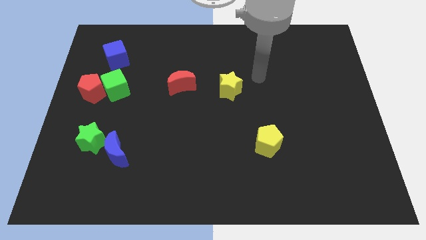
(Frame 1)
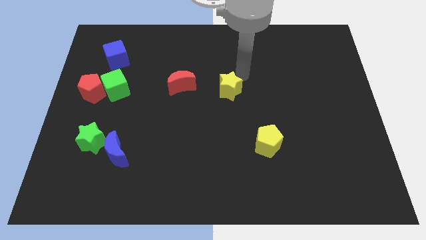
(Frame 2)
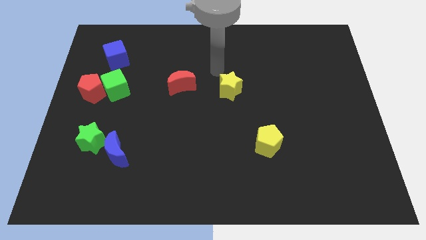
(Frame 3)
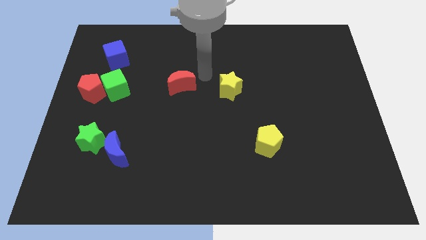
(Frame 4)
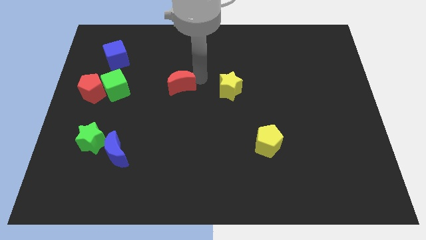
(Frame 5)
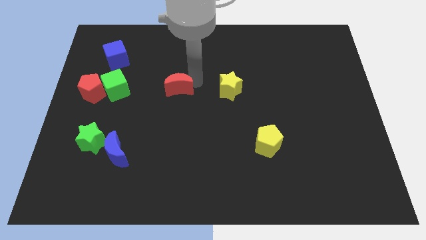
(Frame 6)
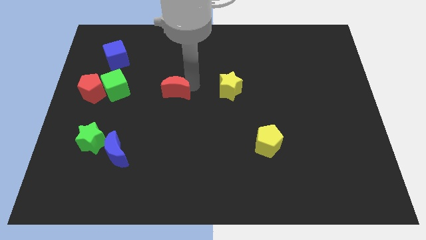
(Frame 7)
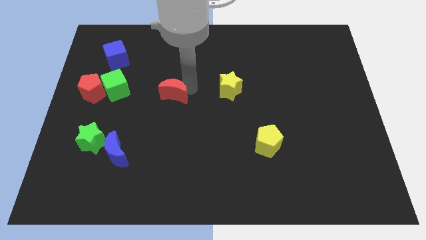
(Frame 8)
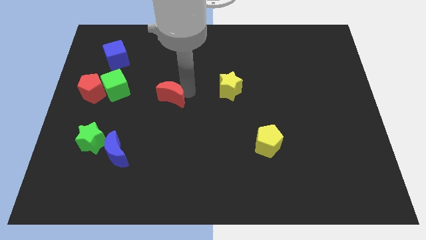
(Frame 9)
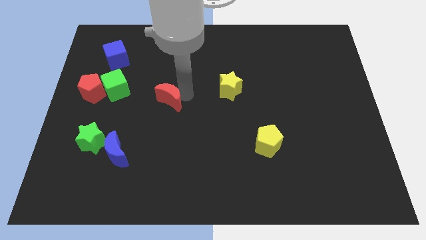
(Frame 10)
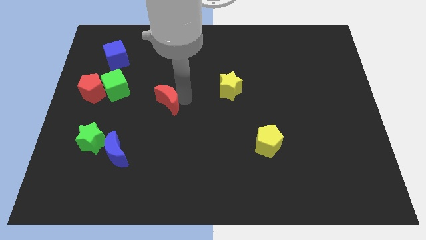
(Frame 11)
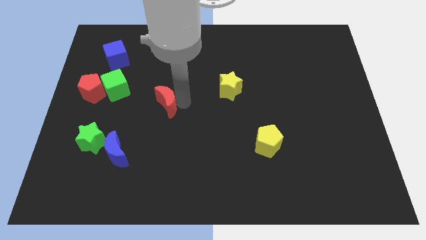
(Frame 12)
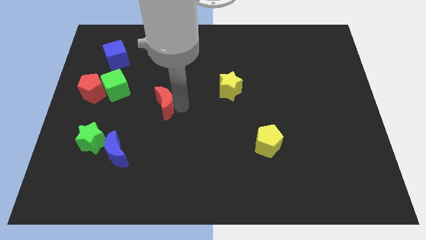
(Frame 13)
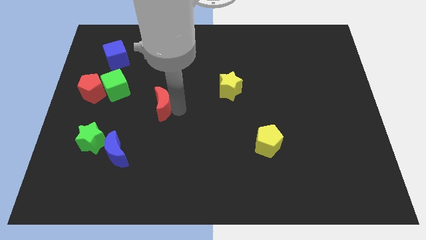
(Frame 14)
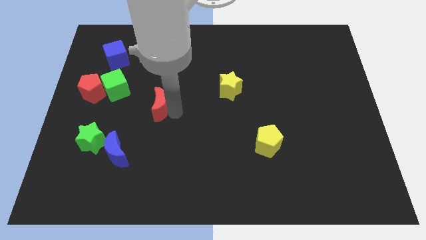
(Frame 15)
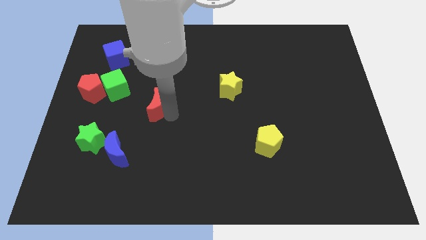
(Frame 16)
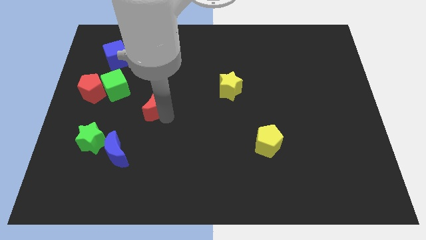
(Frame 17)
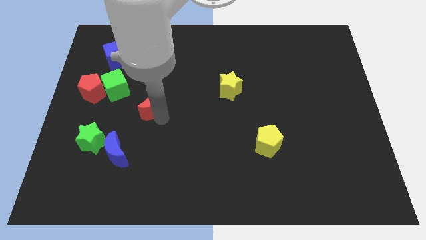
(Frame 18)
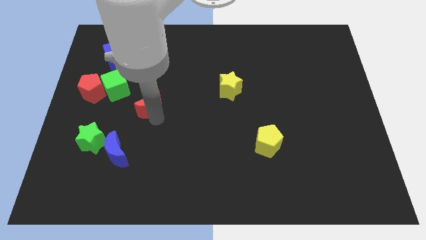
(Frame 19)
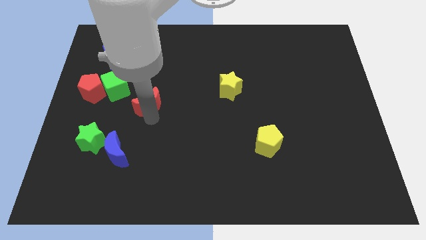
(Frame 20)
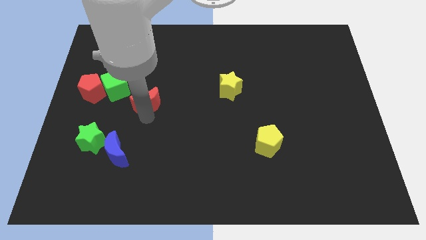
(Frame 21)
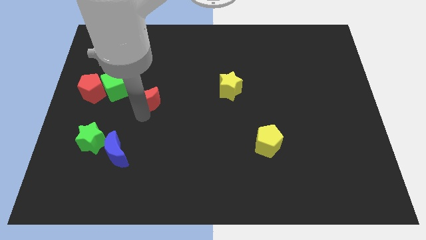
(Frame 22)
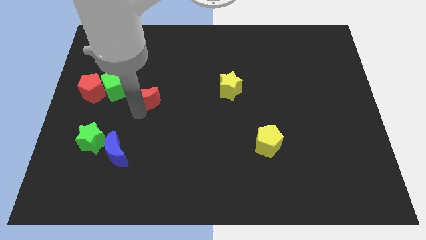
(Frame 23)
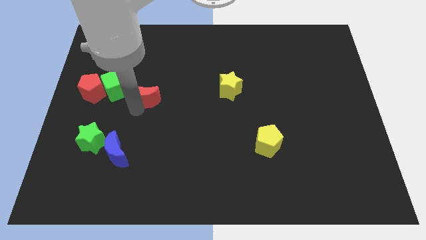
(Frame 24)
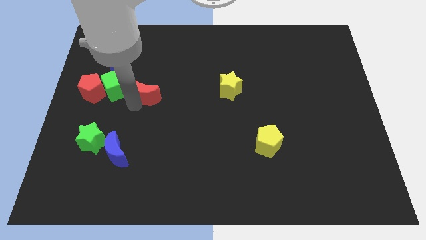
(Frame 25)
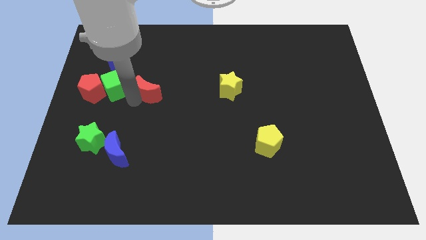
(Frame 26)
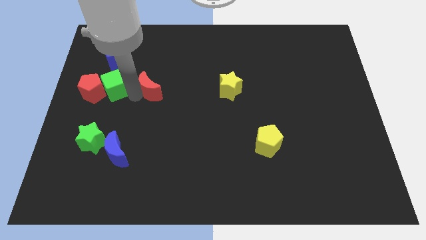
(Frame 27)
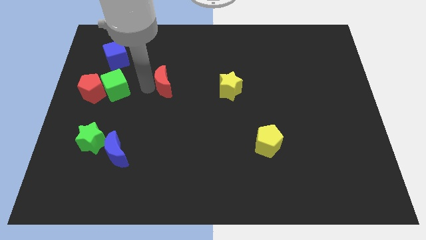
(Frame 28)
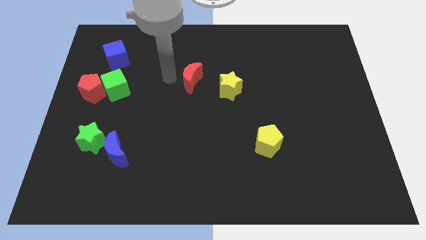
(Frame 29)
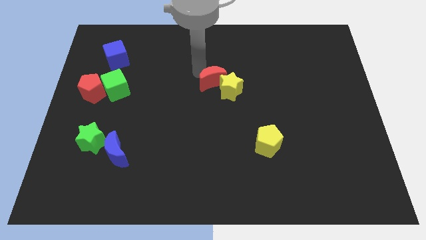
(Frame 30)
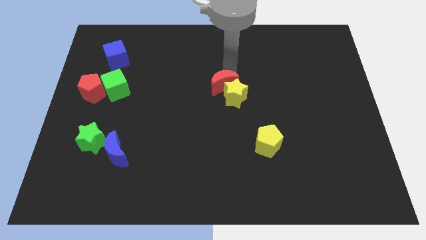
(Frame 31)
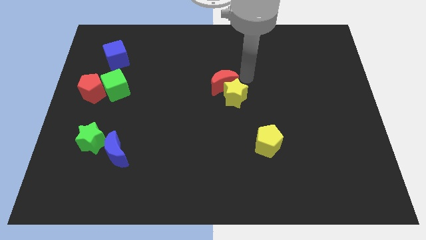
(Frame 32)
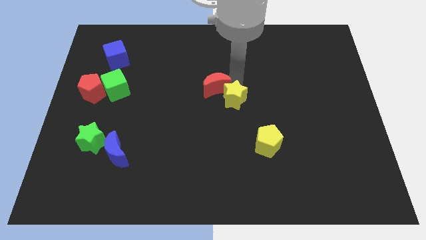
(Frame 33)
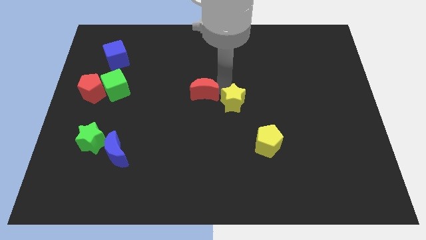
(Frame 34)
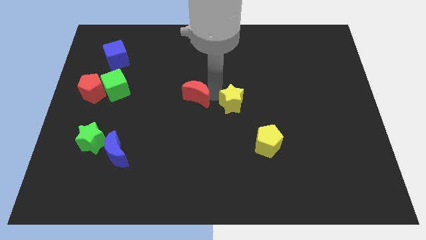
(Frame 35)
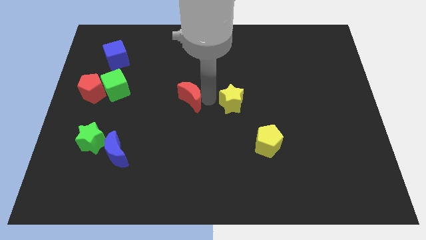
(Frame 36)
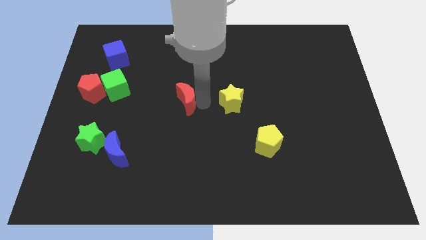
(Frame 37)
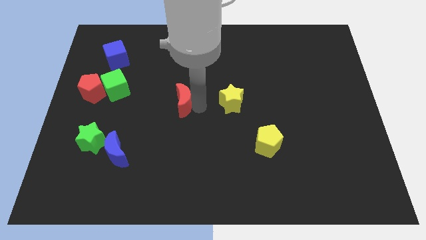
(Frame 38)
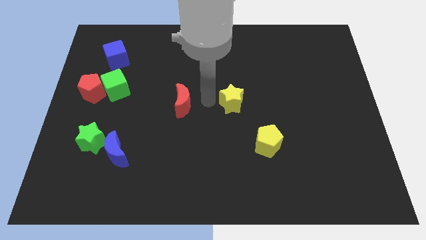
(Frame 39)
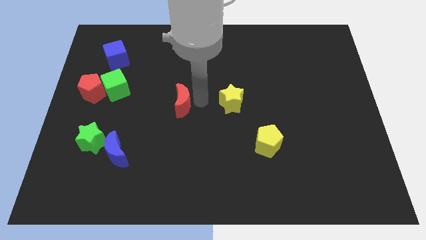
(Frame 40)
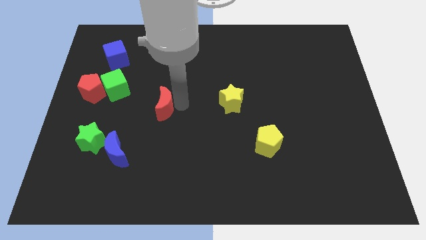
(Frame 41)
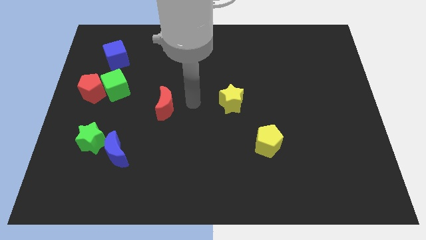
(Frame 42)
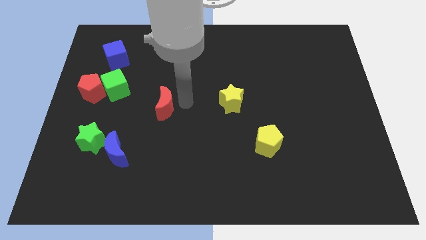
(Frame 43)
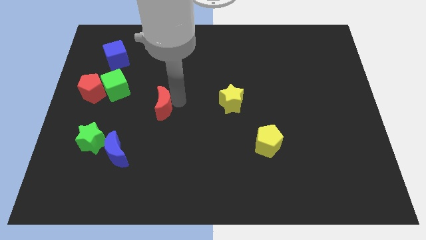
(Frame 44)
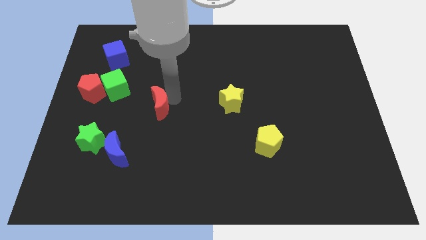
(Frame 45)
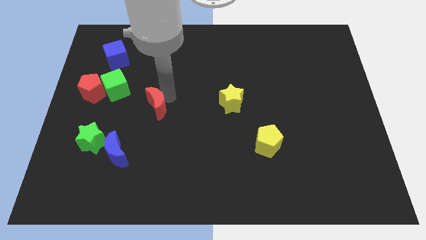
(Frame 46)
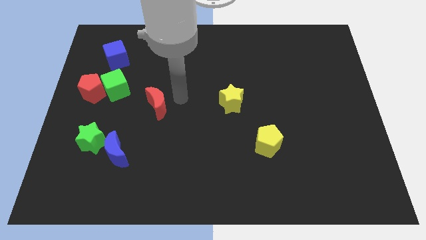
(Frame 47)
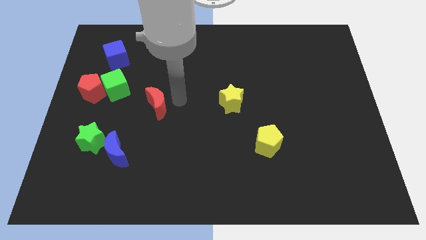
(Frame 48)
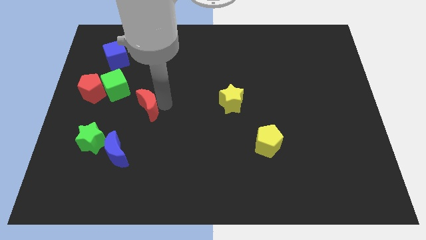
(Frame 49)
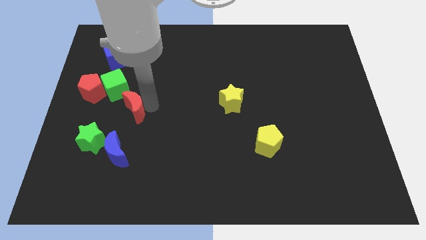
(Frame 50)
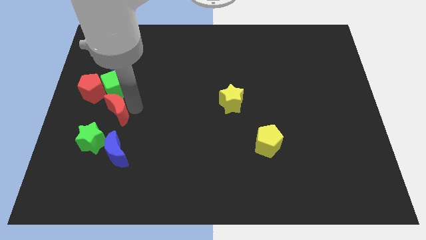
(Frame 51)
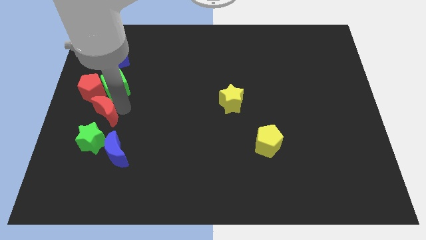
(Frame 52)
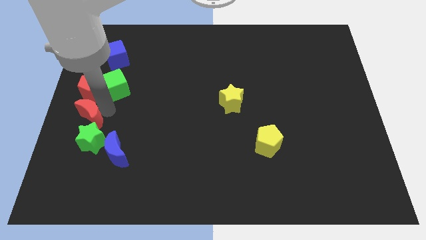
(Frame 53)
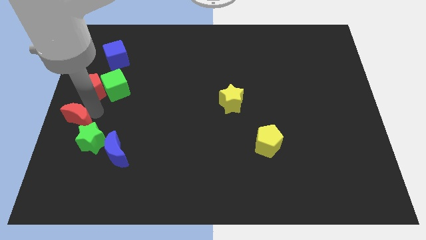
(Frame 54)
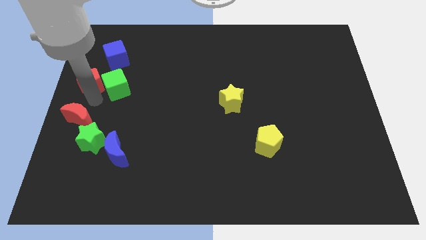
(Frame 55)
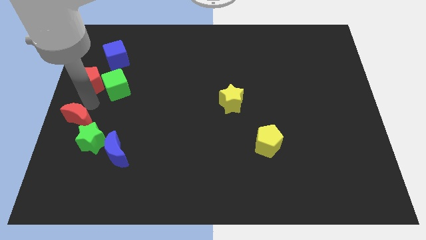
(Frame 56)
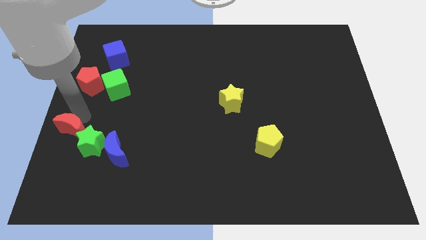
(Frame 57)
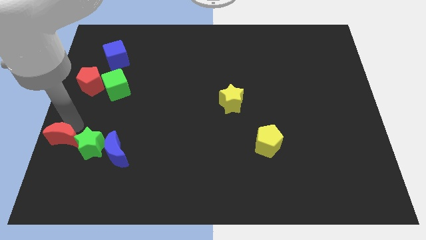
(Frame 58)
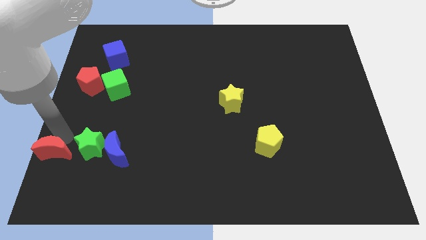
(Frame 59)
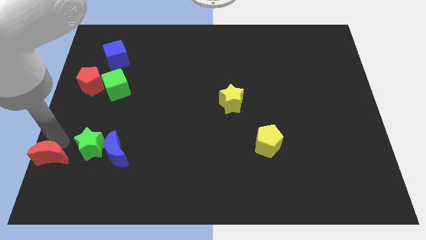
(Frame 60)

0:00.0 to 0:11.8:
move the red moon to the bottom left of the board

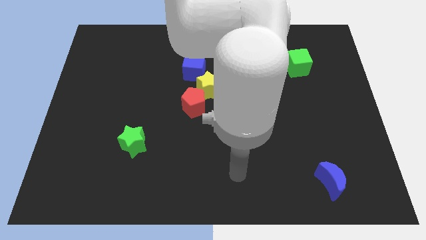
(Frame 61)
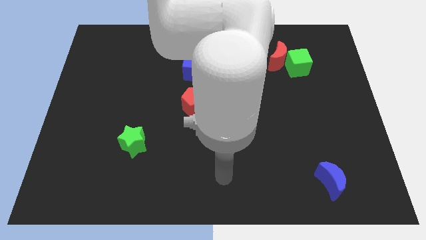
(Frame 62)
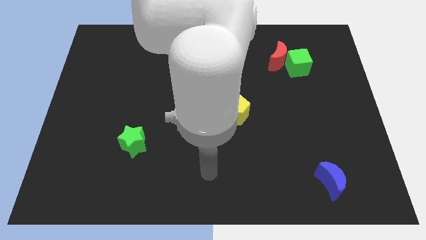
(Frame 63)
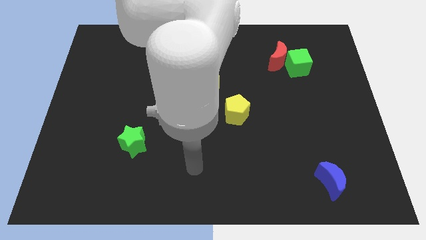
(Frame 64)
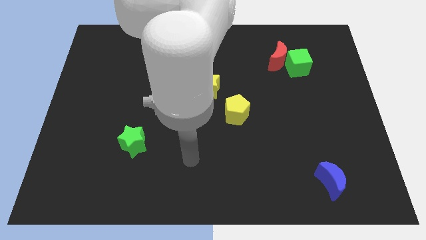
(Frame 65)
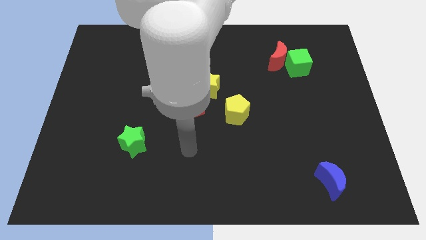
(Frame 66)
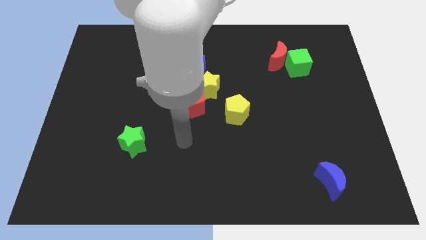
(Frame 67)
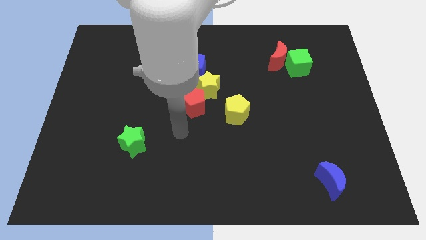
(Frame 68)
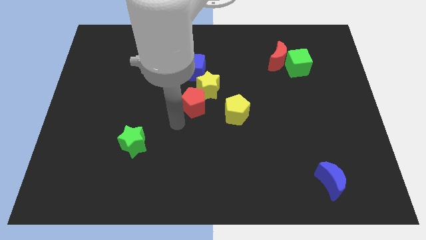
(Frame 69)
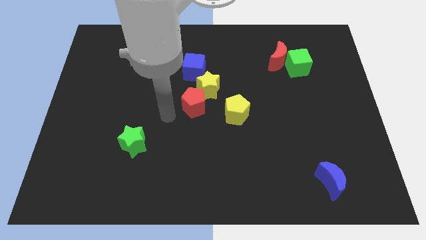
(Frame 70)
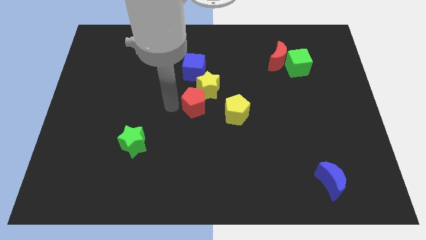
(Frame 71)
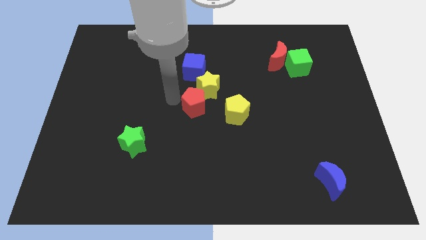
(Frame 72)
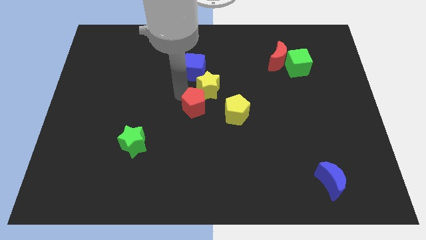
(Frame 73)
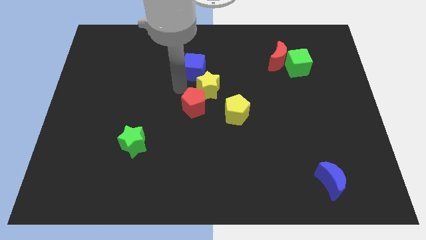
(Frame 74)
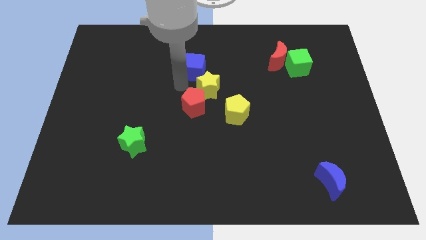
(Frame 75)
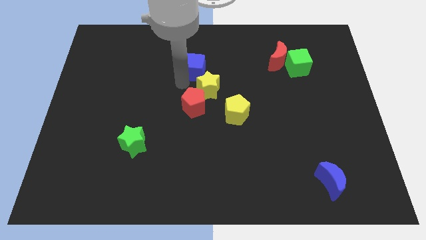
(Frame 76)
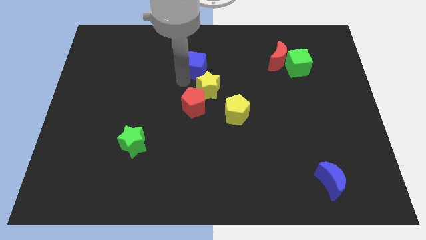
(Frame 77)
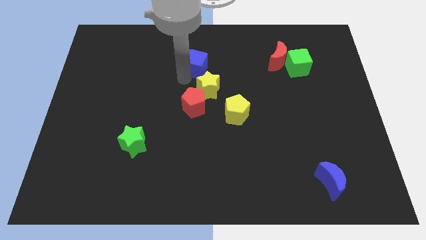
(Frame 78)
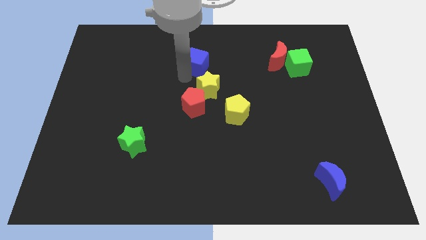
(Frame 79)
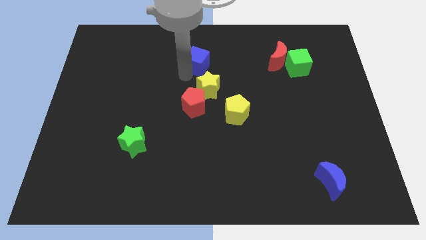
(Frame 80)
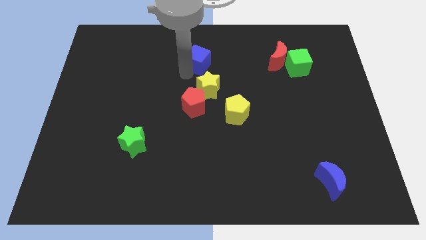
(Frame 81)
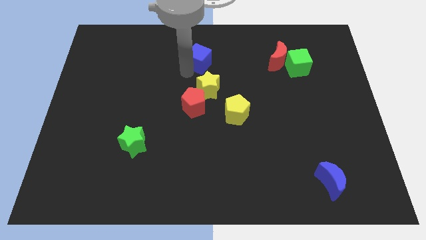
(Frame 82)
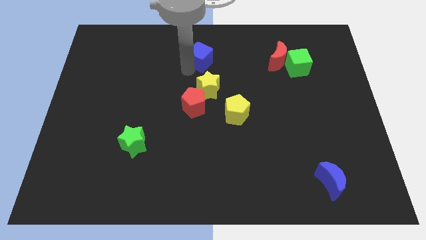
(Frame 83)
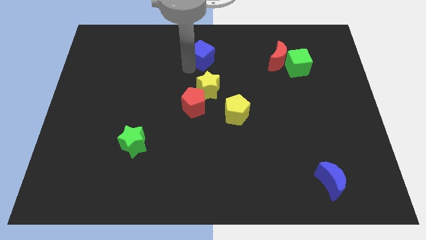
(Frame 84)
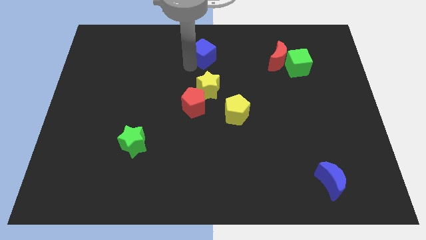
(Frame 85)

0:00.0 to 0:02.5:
slide the blue cube to the towards your base
